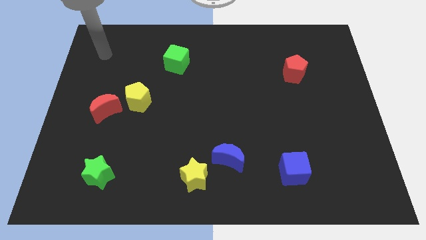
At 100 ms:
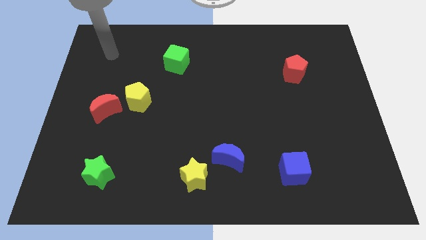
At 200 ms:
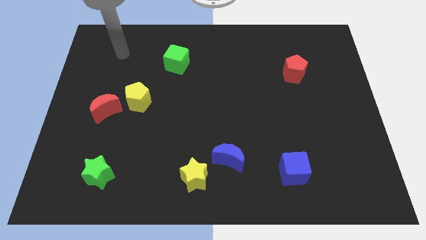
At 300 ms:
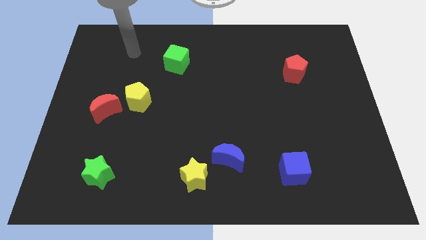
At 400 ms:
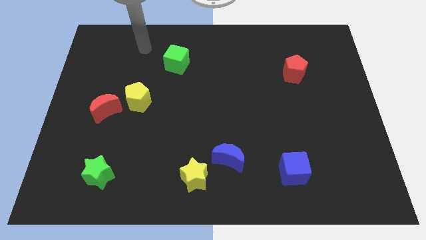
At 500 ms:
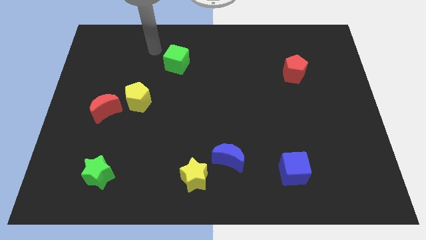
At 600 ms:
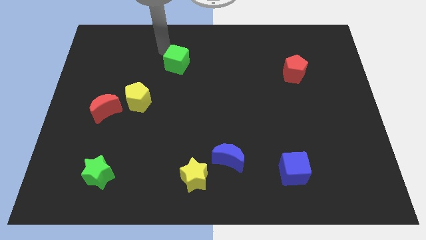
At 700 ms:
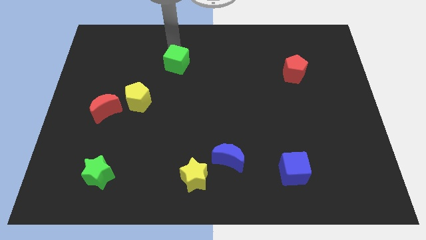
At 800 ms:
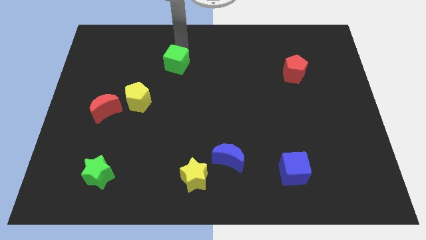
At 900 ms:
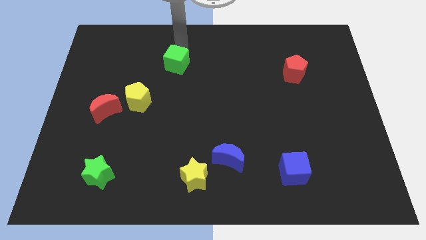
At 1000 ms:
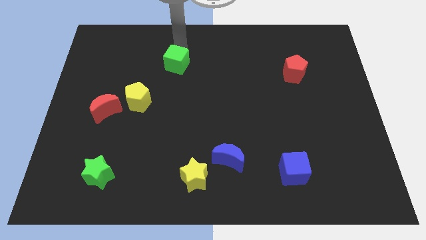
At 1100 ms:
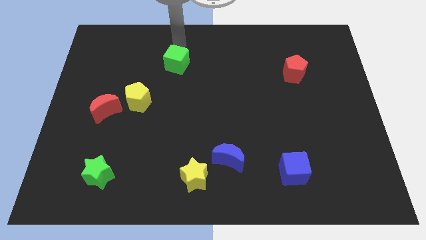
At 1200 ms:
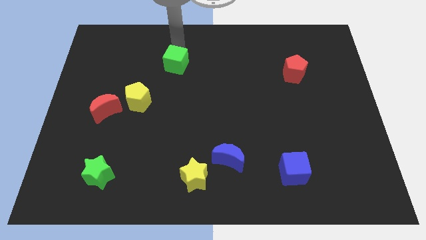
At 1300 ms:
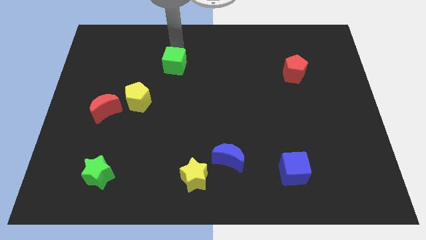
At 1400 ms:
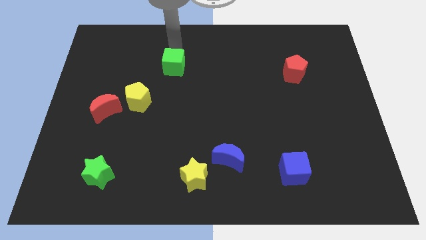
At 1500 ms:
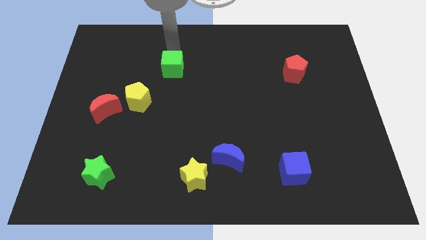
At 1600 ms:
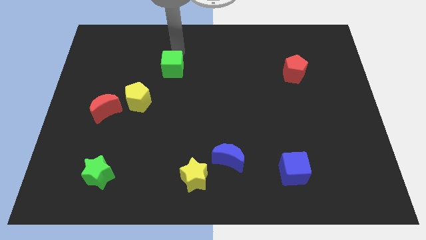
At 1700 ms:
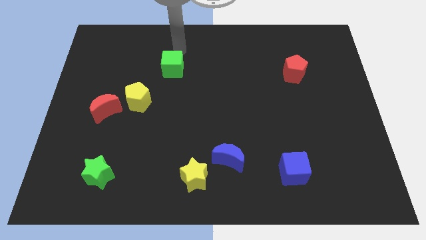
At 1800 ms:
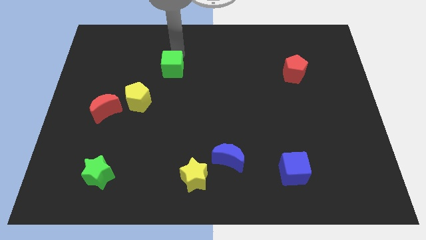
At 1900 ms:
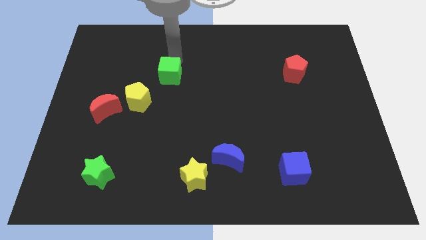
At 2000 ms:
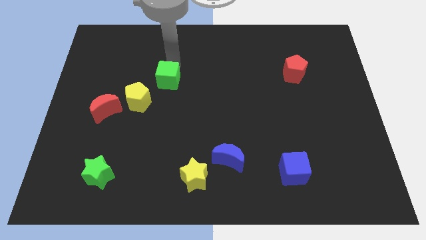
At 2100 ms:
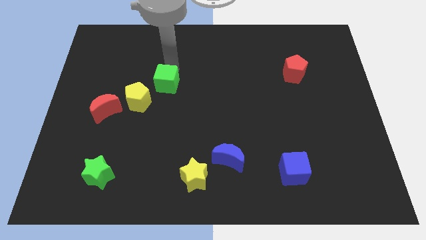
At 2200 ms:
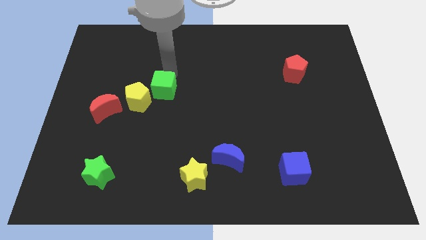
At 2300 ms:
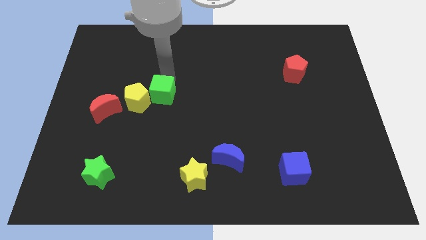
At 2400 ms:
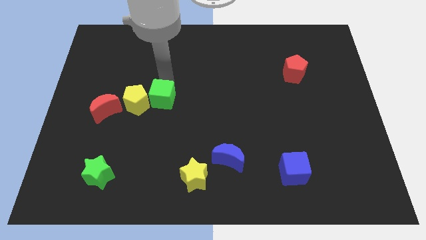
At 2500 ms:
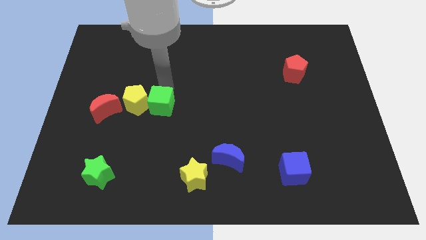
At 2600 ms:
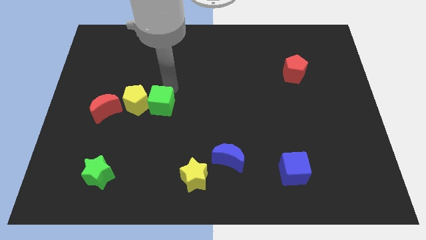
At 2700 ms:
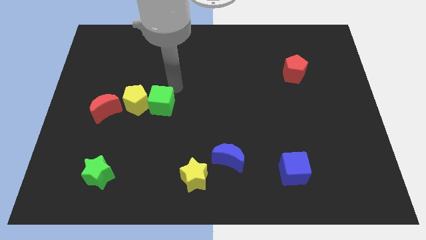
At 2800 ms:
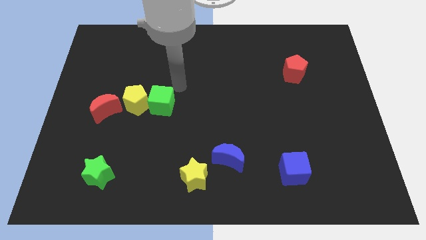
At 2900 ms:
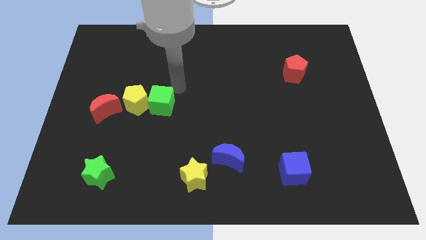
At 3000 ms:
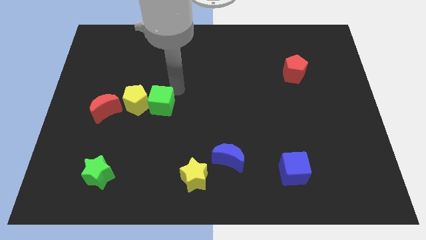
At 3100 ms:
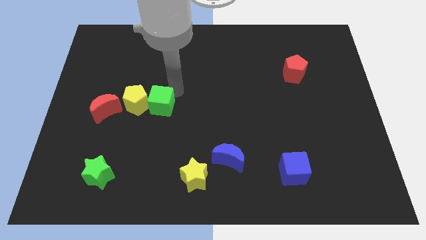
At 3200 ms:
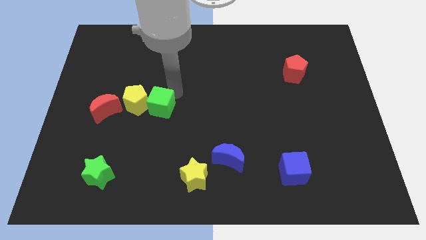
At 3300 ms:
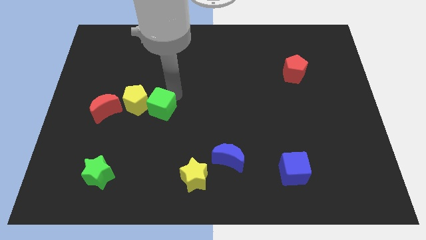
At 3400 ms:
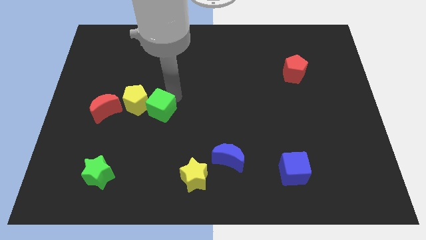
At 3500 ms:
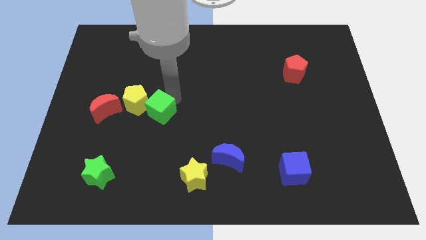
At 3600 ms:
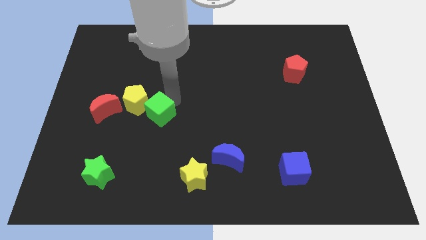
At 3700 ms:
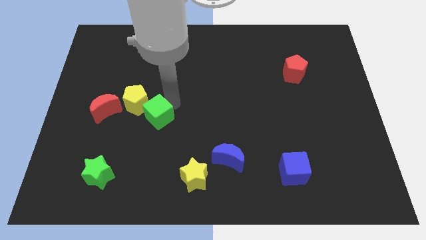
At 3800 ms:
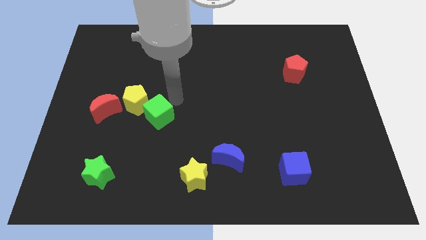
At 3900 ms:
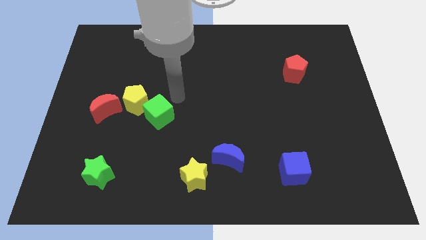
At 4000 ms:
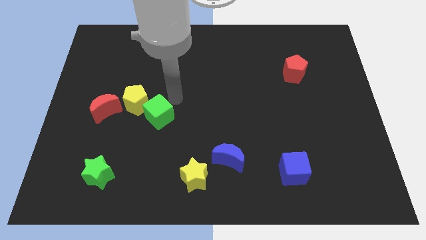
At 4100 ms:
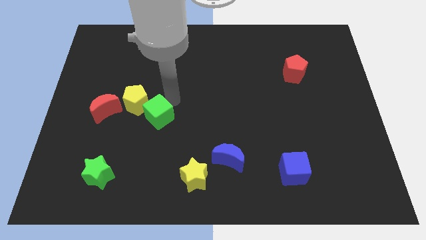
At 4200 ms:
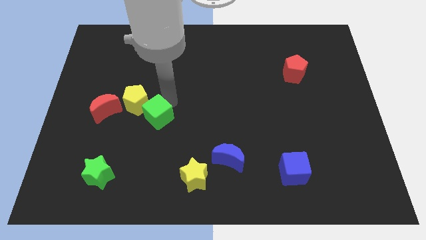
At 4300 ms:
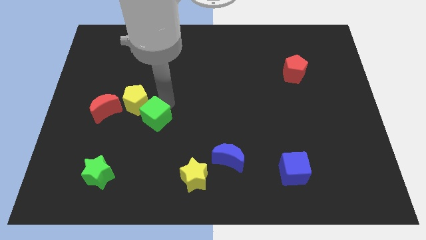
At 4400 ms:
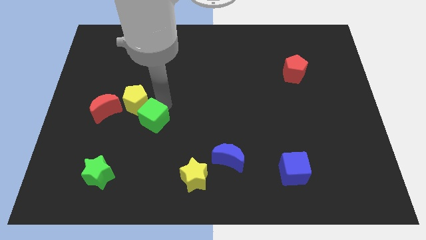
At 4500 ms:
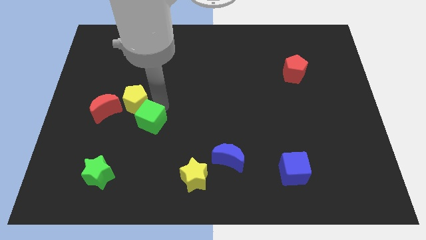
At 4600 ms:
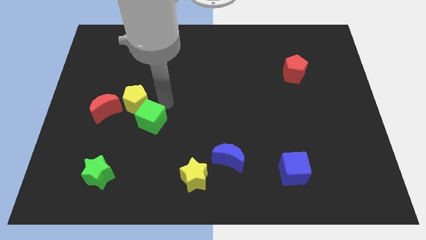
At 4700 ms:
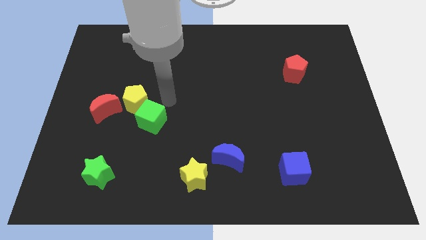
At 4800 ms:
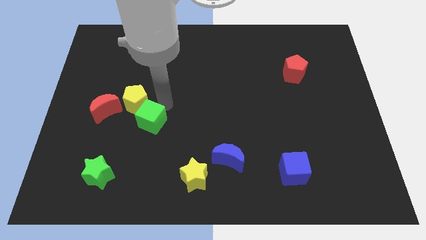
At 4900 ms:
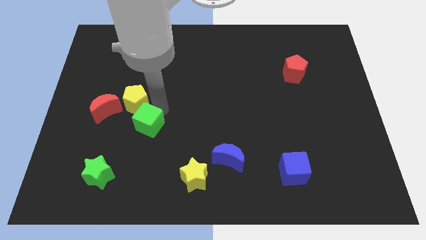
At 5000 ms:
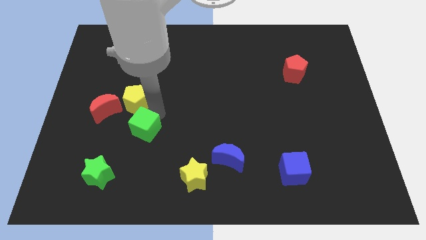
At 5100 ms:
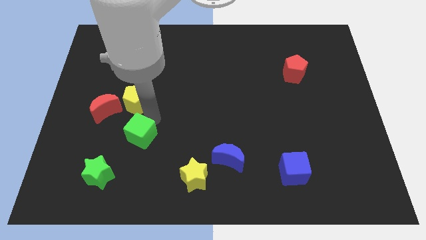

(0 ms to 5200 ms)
put the green cube to the top right side of the green star

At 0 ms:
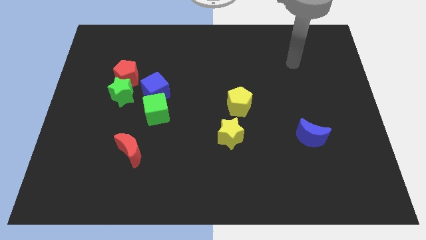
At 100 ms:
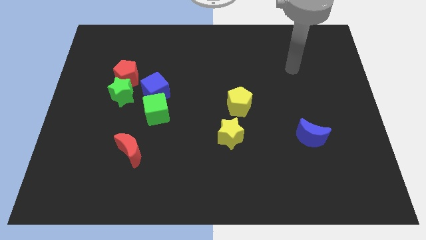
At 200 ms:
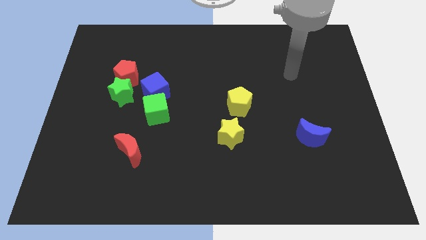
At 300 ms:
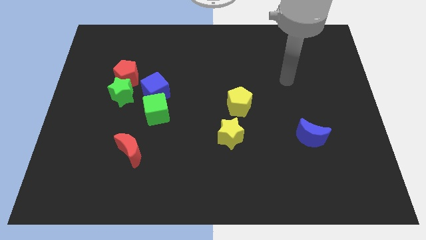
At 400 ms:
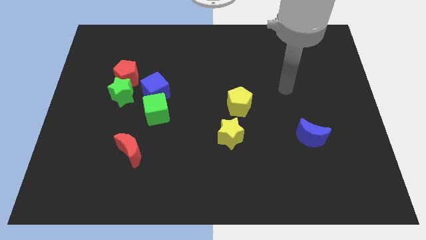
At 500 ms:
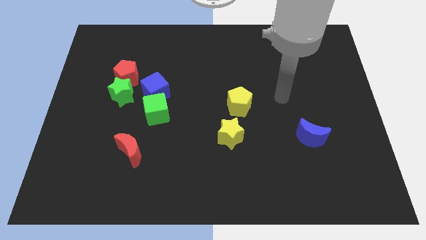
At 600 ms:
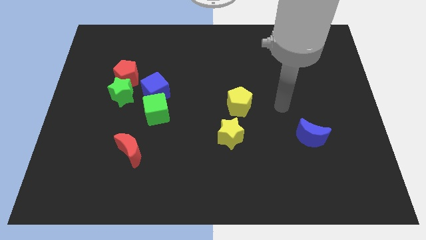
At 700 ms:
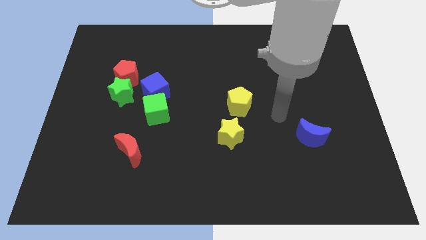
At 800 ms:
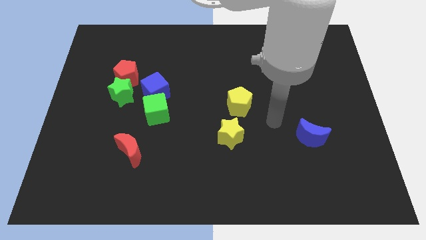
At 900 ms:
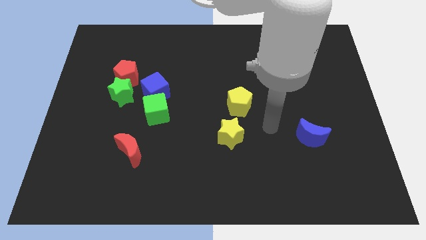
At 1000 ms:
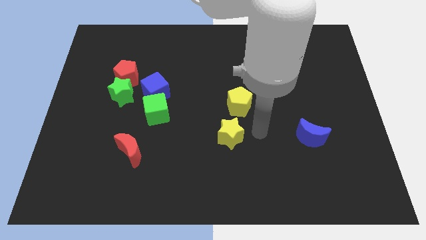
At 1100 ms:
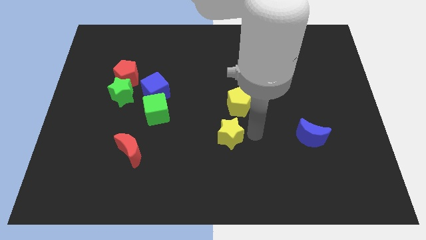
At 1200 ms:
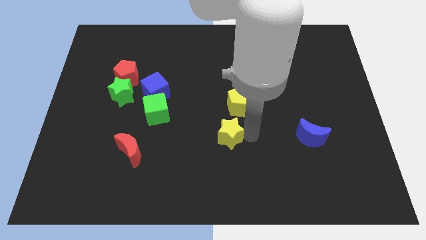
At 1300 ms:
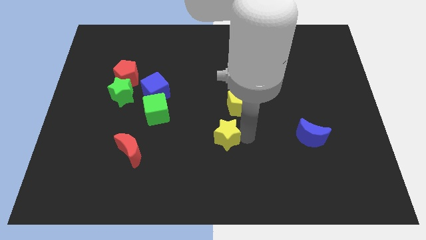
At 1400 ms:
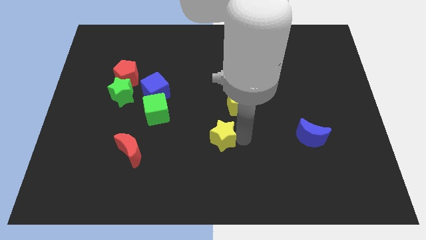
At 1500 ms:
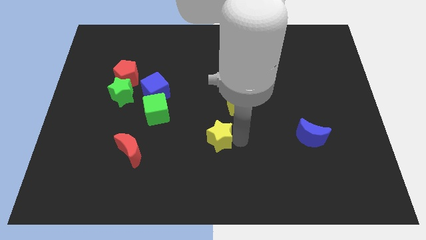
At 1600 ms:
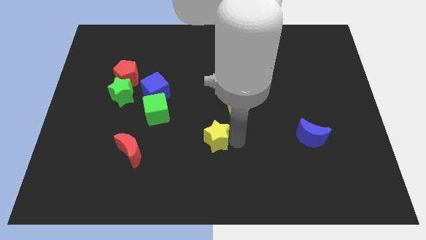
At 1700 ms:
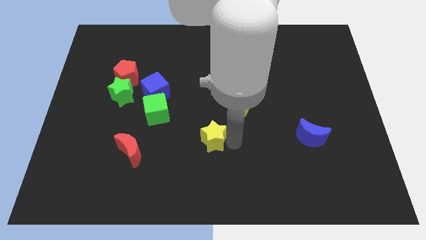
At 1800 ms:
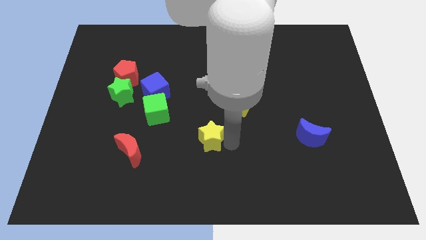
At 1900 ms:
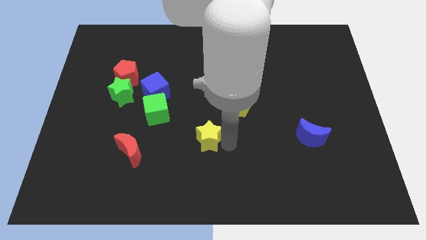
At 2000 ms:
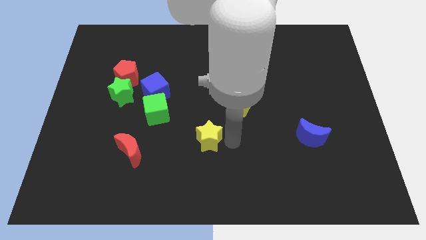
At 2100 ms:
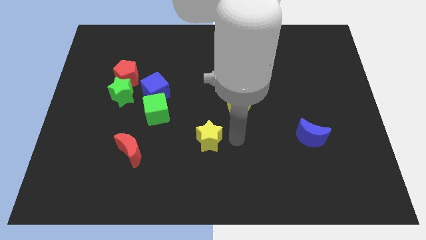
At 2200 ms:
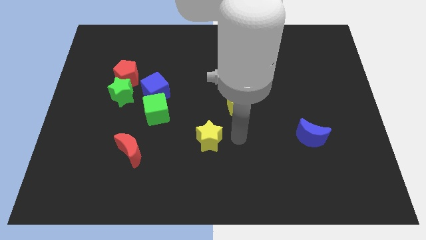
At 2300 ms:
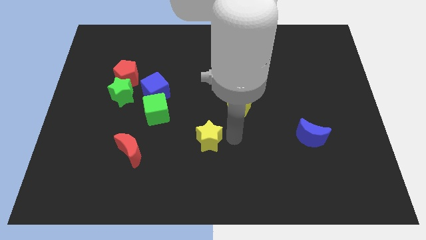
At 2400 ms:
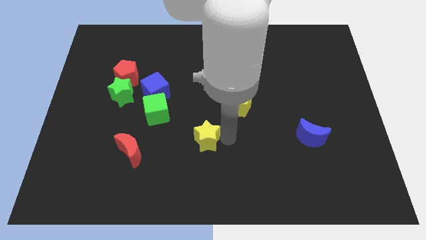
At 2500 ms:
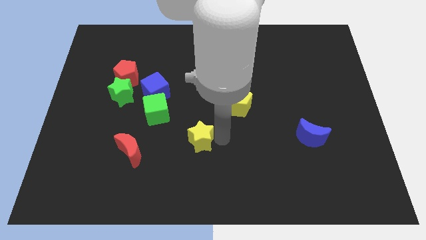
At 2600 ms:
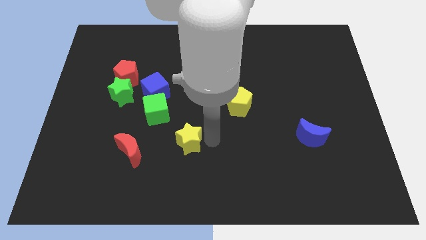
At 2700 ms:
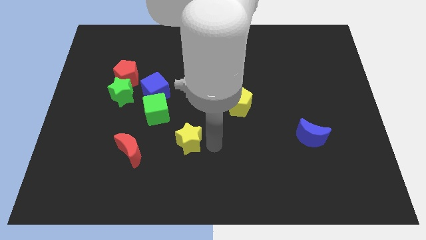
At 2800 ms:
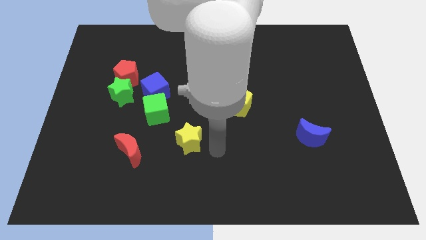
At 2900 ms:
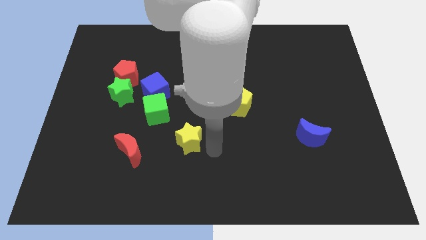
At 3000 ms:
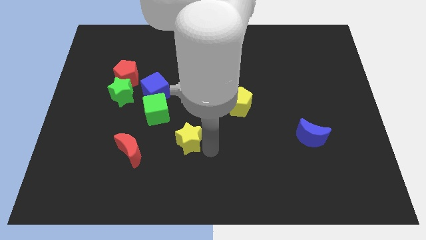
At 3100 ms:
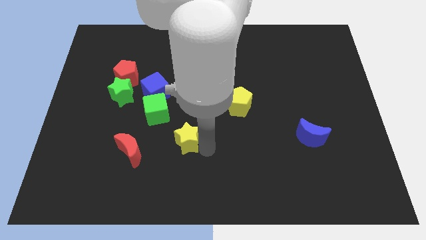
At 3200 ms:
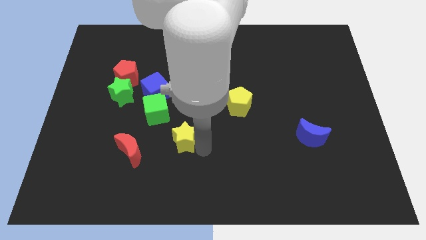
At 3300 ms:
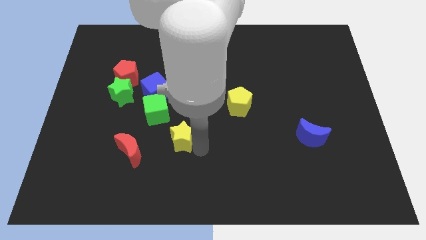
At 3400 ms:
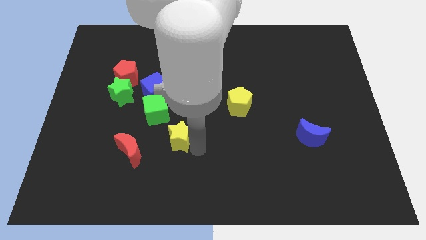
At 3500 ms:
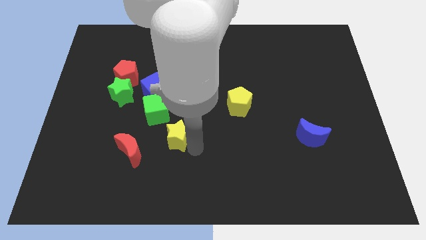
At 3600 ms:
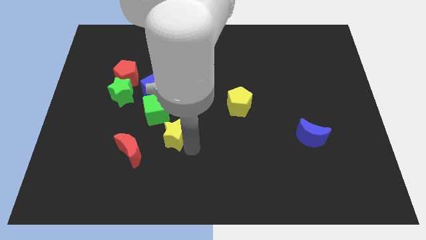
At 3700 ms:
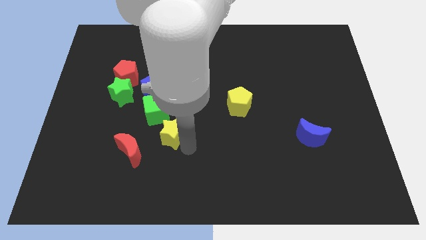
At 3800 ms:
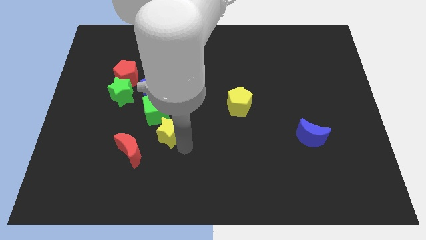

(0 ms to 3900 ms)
move the yellow star to the bottom side of the blue cube
